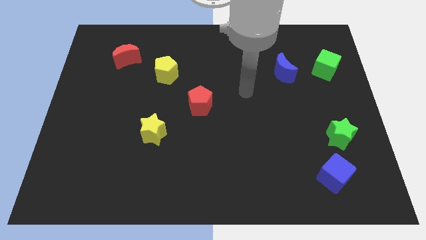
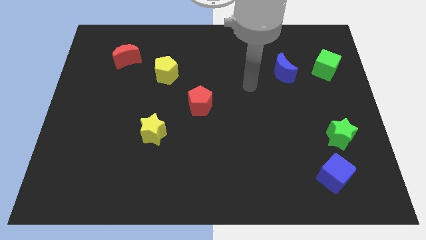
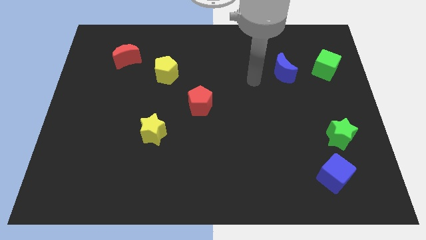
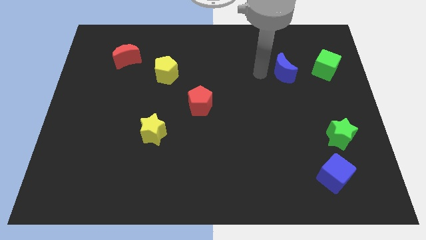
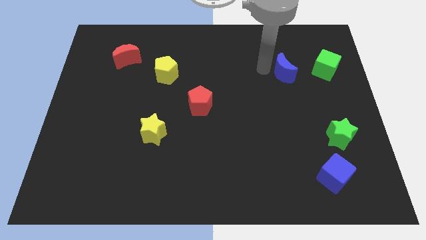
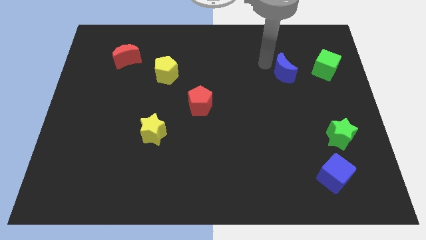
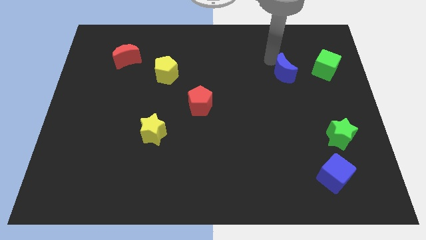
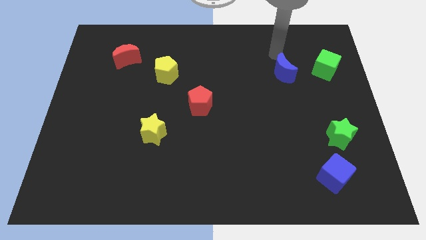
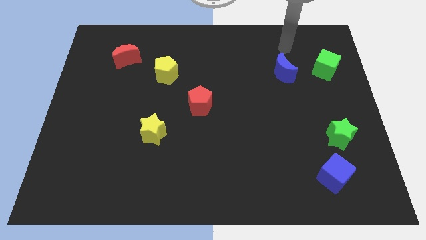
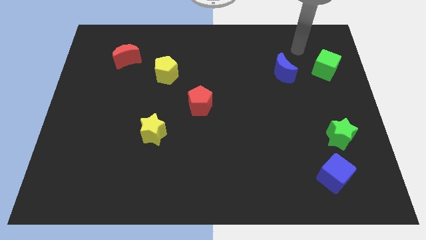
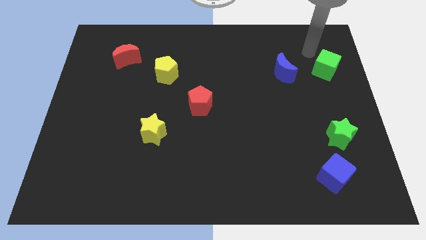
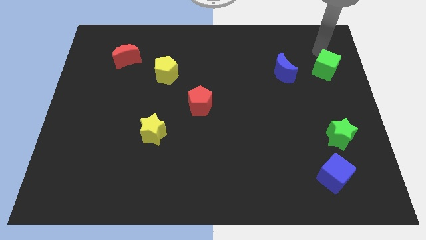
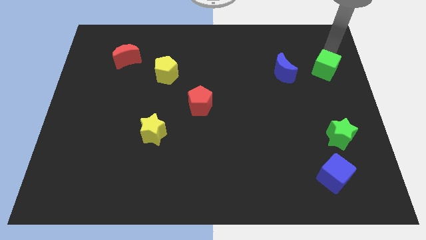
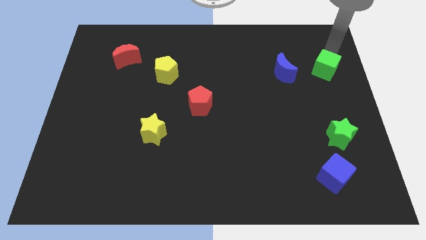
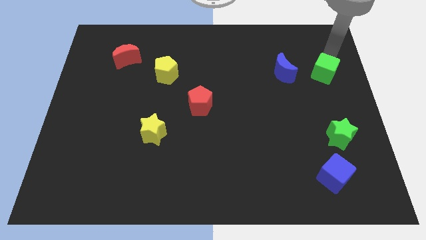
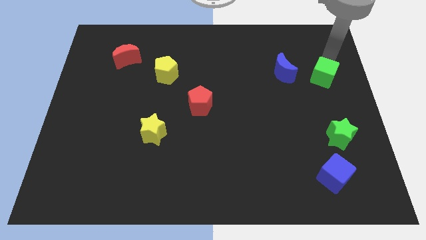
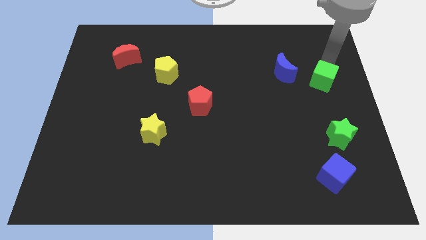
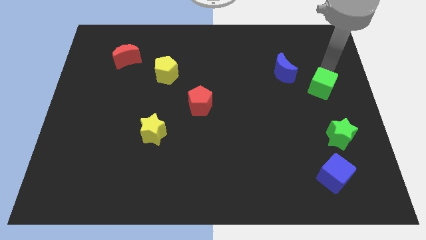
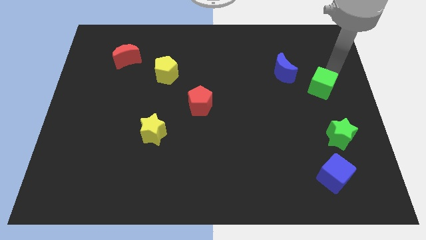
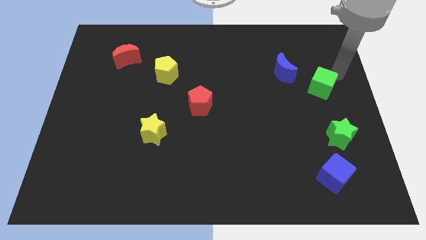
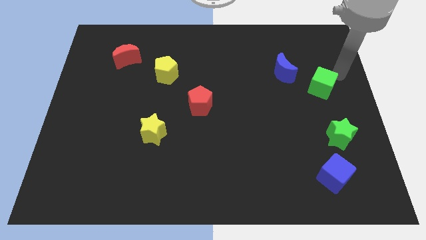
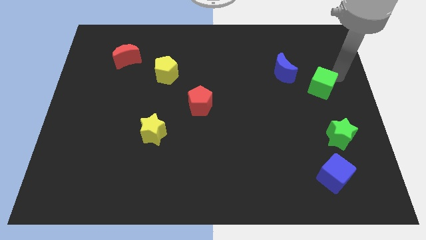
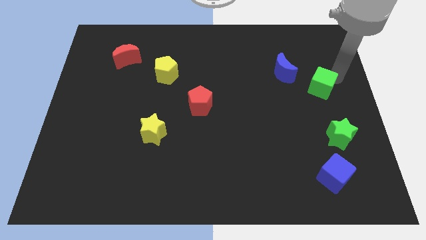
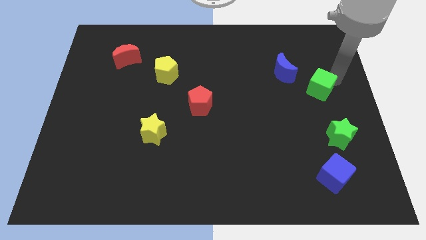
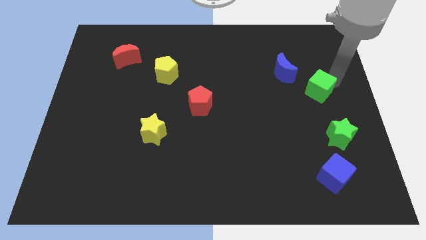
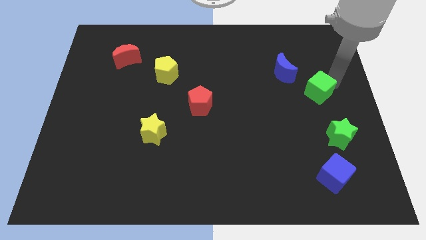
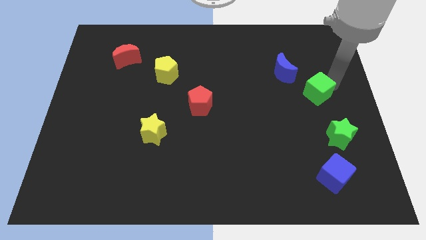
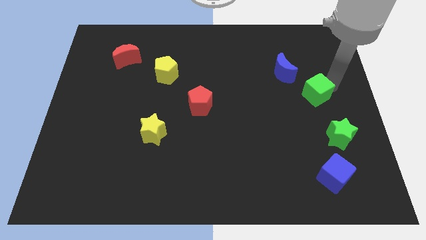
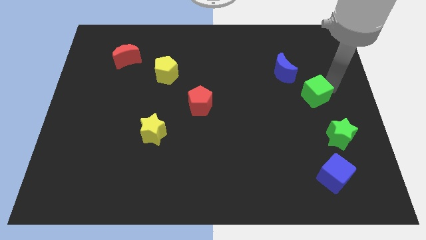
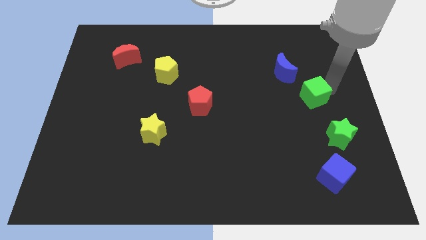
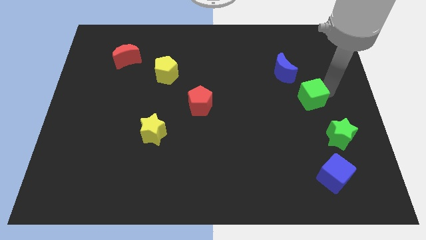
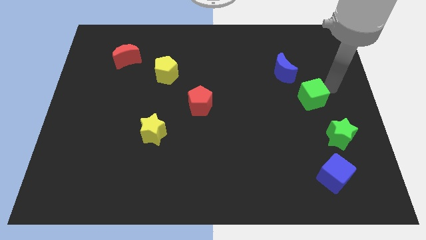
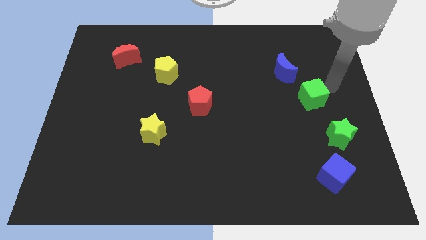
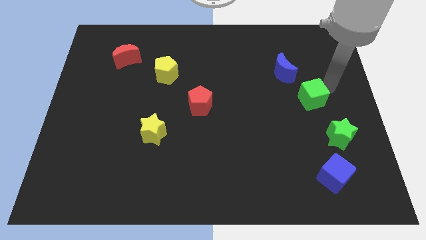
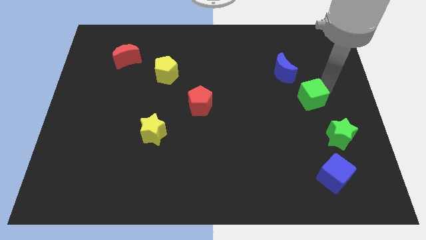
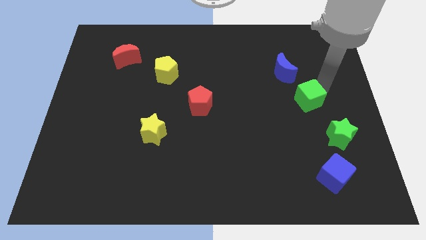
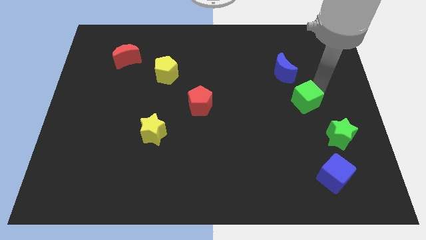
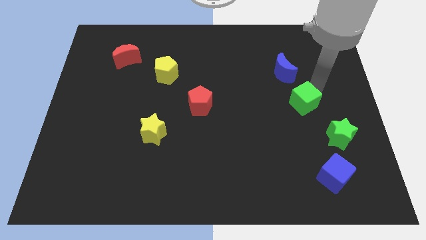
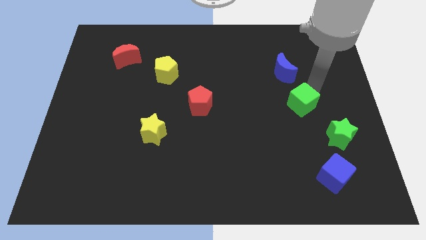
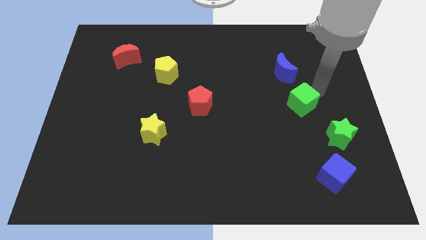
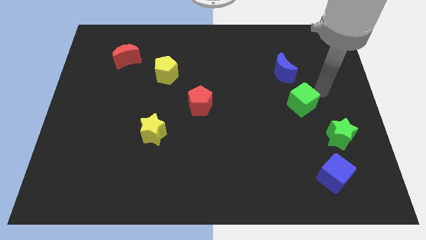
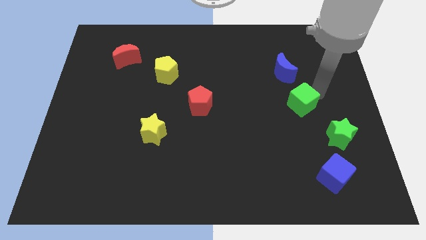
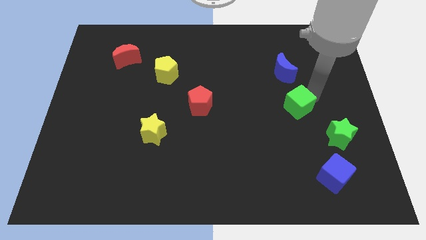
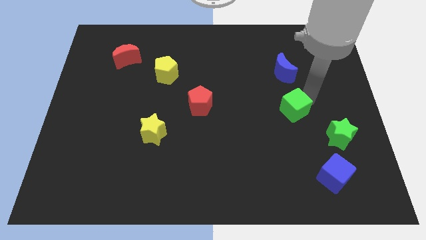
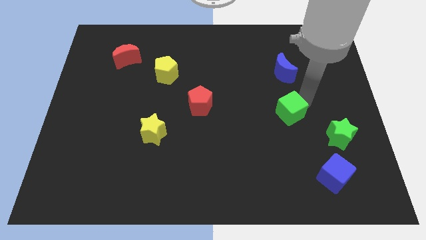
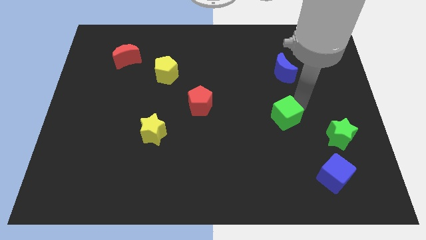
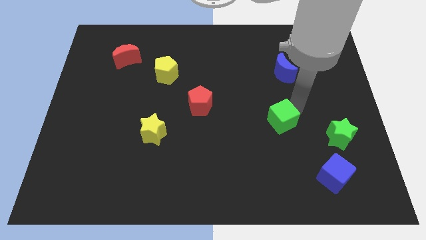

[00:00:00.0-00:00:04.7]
move the green cube down and then left

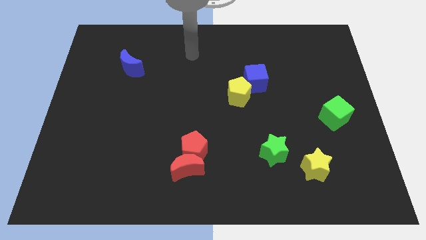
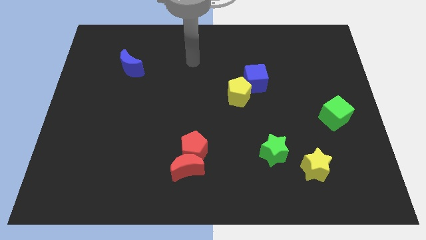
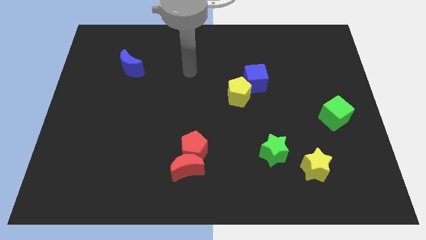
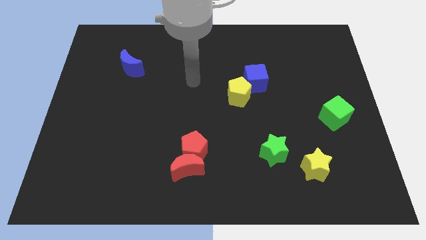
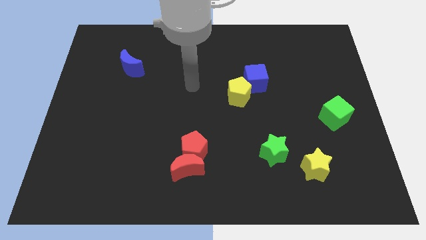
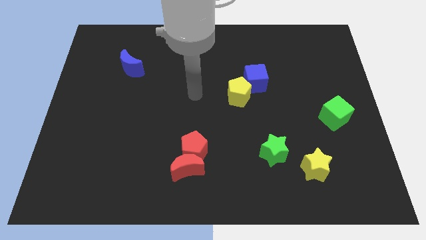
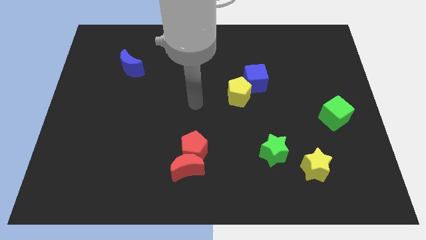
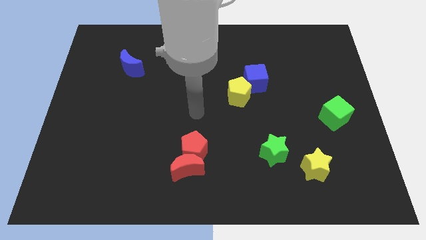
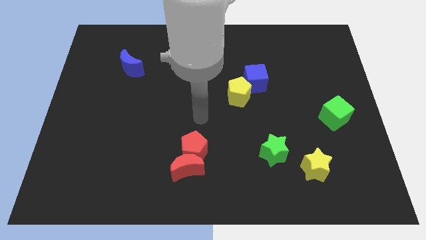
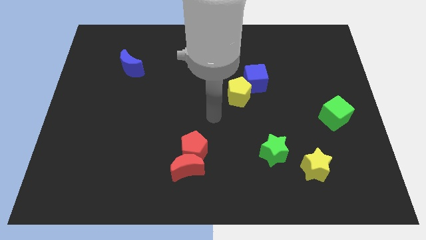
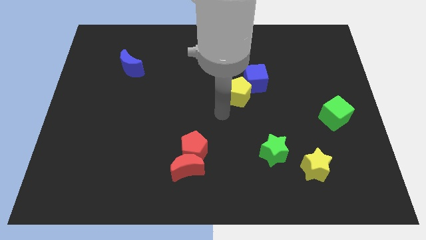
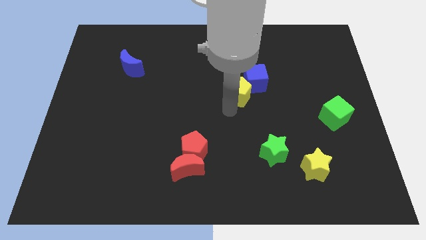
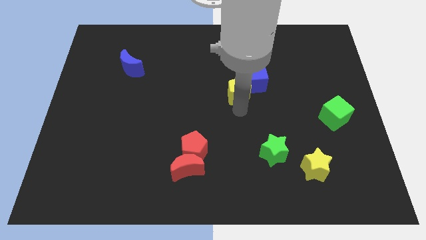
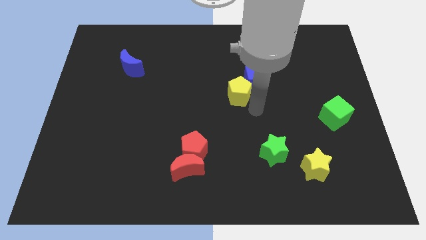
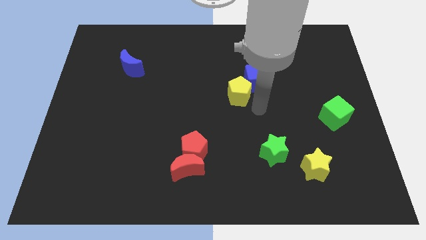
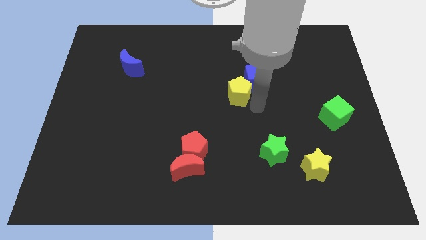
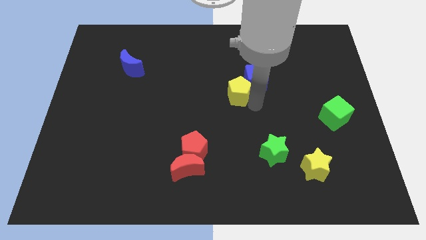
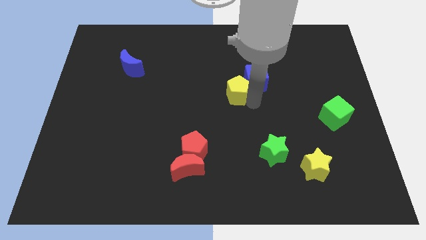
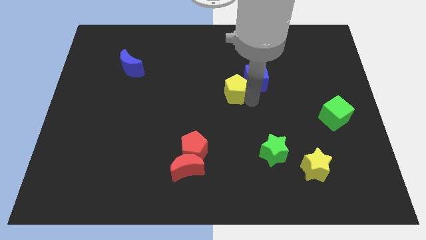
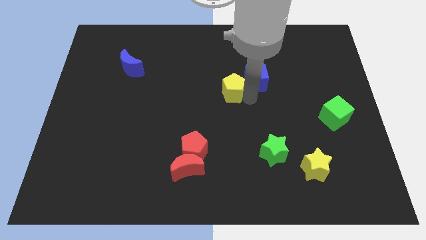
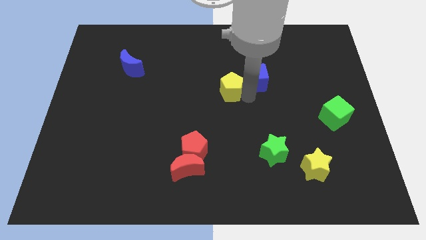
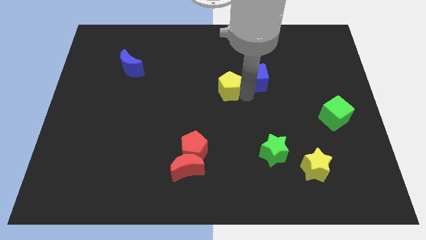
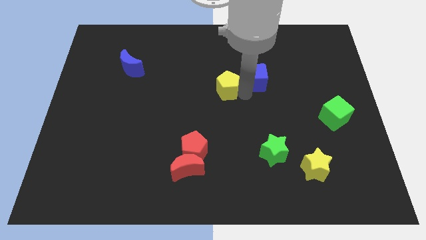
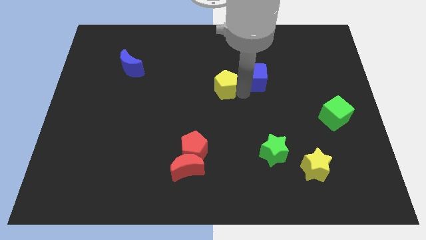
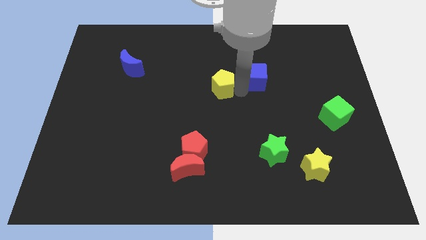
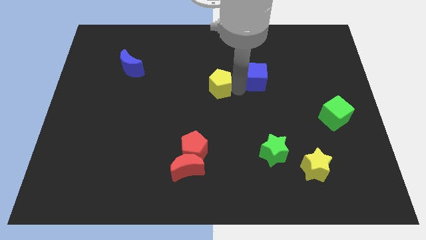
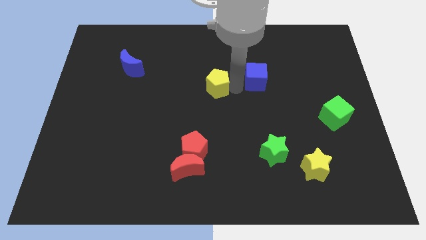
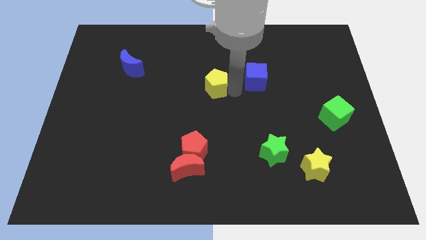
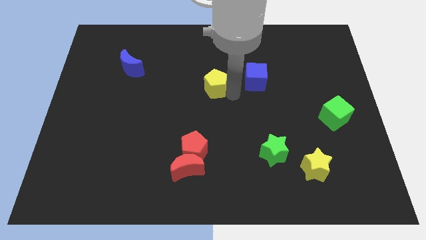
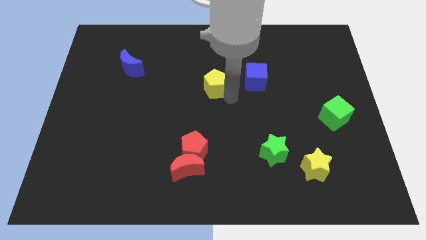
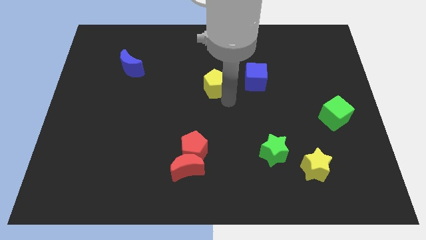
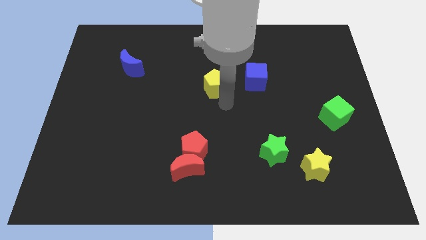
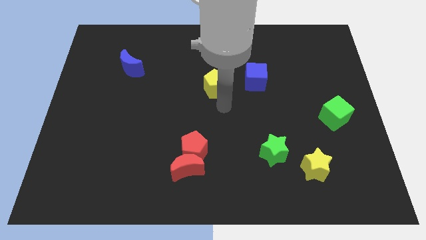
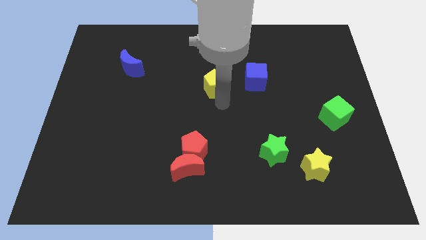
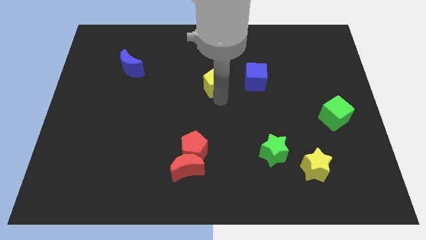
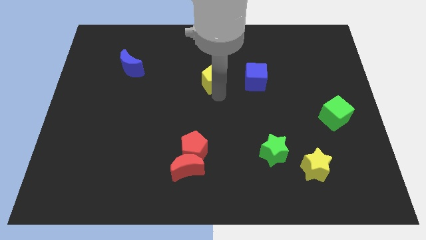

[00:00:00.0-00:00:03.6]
slide the yellow pentagon somewhat diagonally upwards and left
